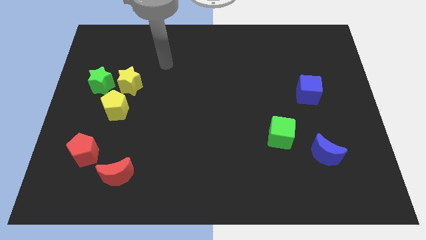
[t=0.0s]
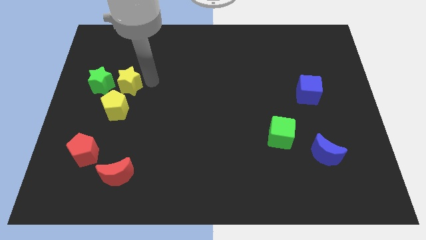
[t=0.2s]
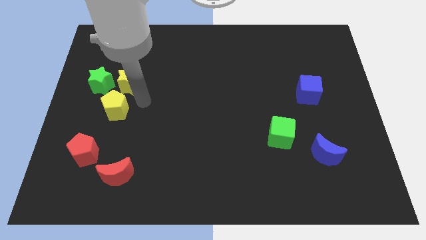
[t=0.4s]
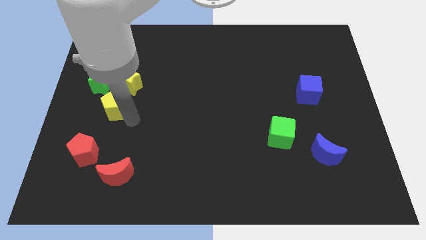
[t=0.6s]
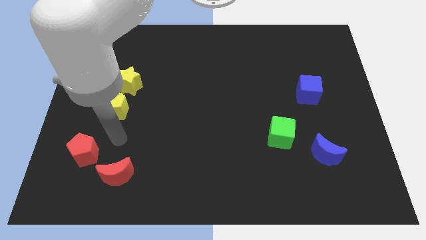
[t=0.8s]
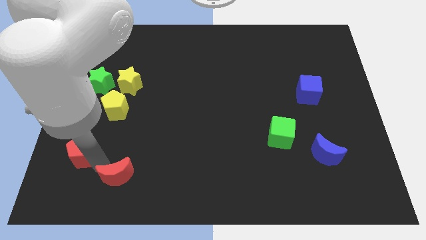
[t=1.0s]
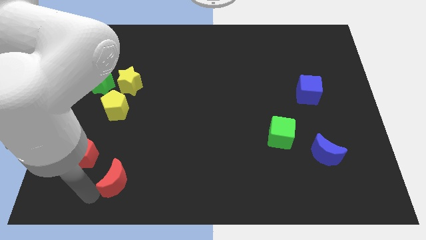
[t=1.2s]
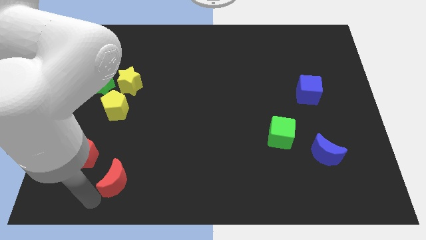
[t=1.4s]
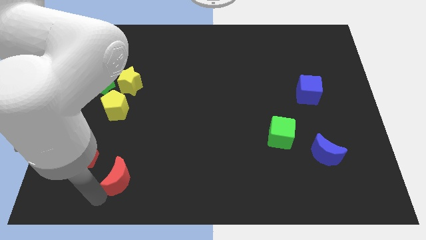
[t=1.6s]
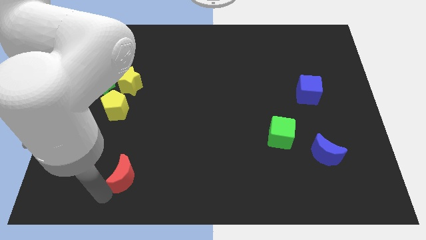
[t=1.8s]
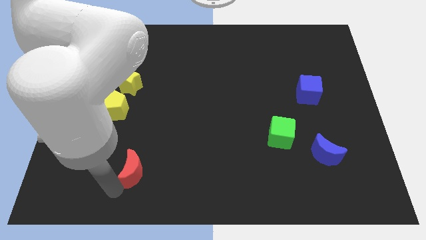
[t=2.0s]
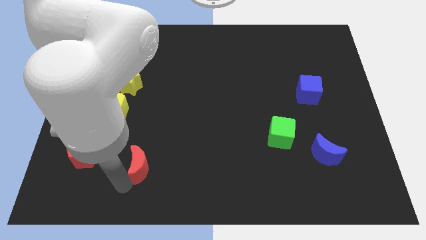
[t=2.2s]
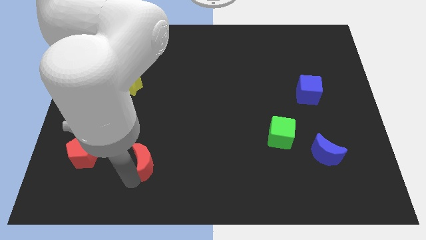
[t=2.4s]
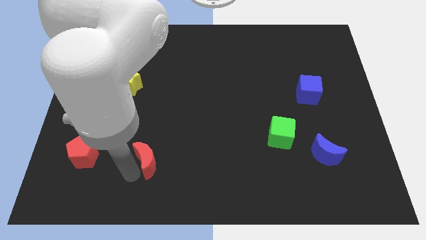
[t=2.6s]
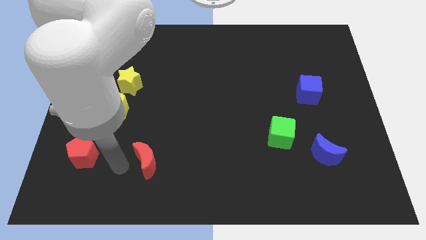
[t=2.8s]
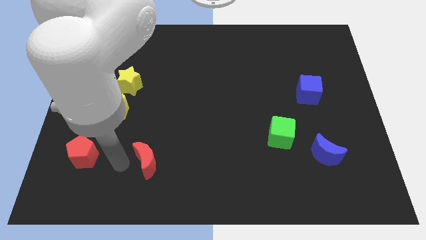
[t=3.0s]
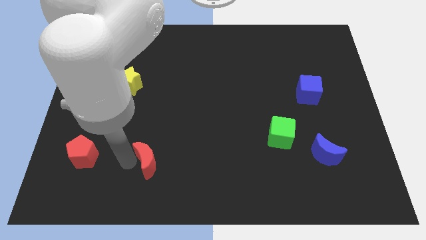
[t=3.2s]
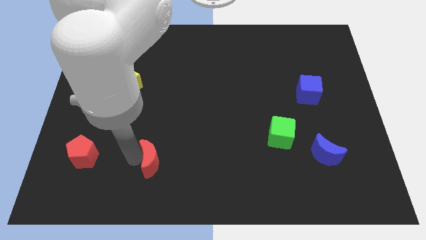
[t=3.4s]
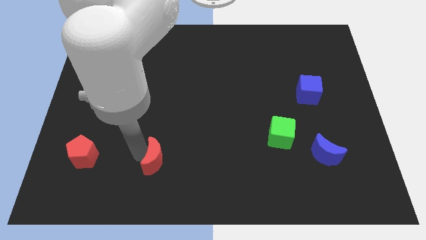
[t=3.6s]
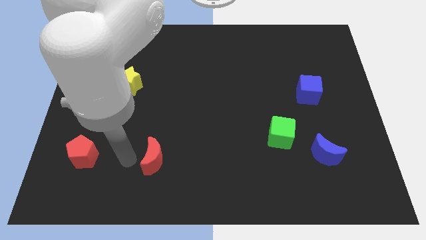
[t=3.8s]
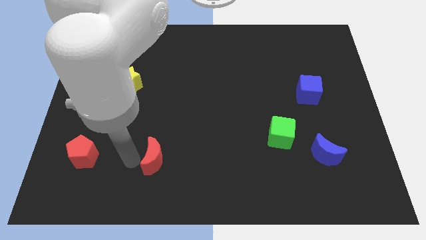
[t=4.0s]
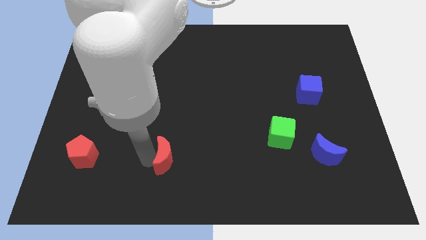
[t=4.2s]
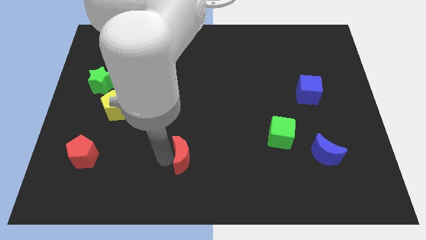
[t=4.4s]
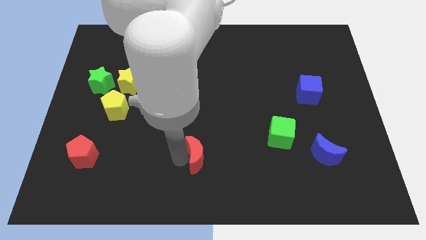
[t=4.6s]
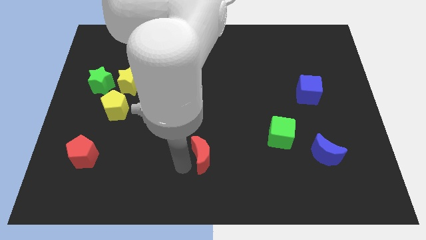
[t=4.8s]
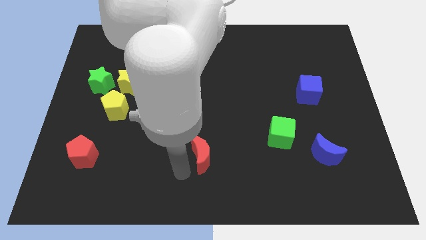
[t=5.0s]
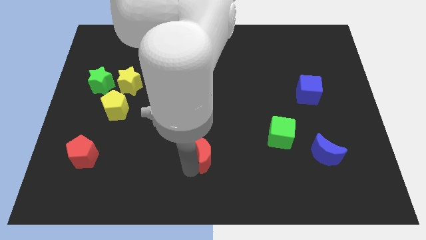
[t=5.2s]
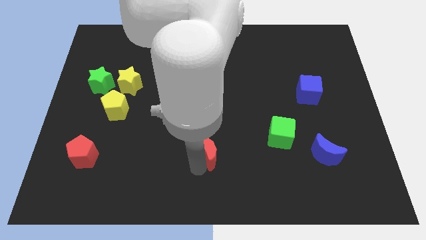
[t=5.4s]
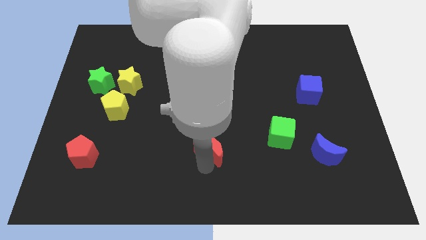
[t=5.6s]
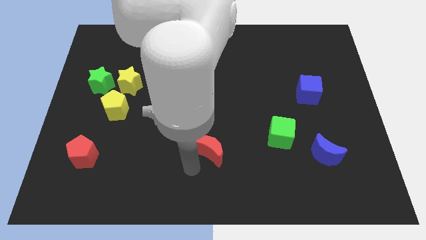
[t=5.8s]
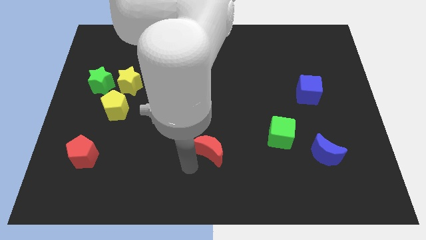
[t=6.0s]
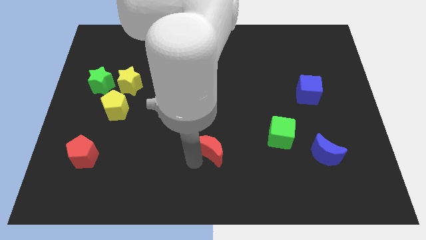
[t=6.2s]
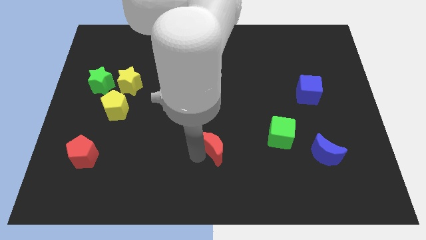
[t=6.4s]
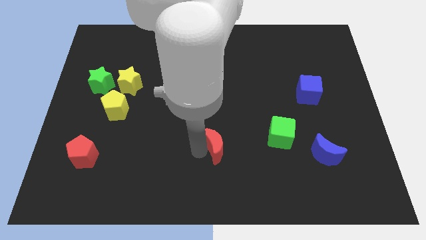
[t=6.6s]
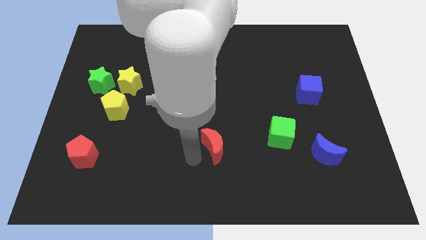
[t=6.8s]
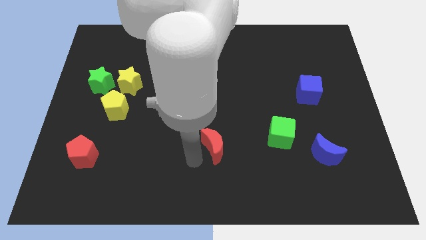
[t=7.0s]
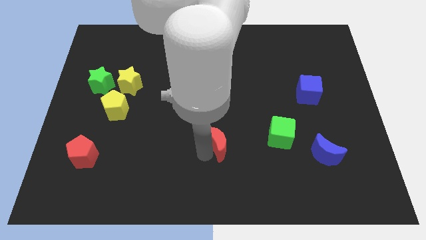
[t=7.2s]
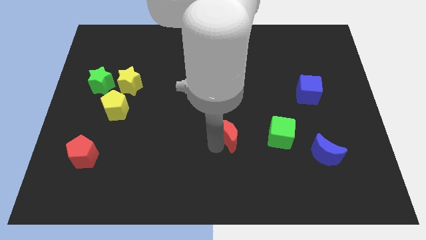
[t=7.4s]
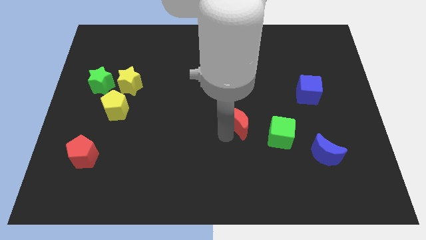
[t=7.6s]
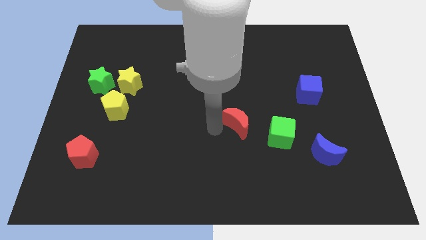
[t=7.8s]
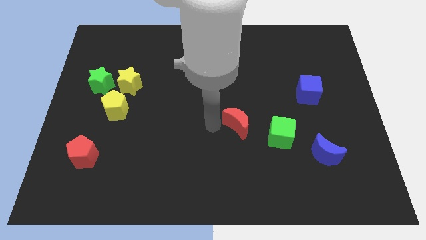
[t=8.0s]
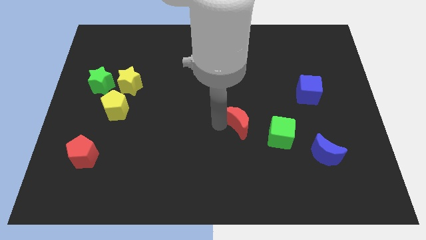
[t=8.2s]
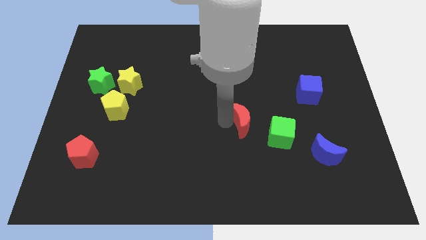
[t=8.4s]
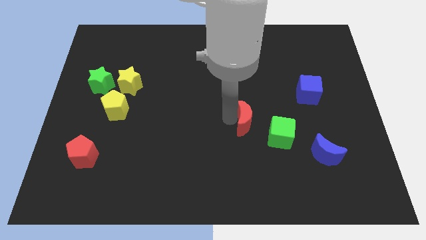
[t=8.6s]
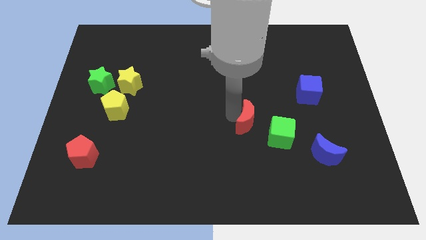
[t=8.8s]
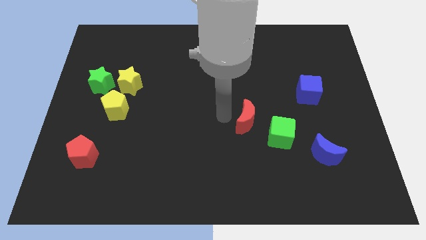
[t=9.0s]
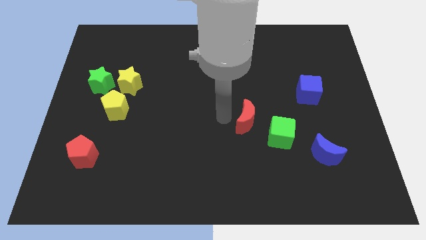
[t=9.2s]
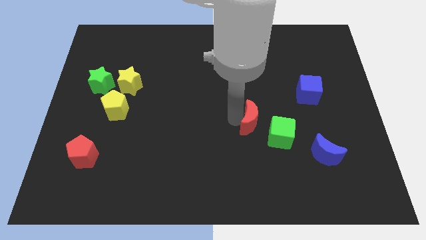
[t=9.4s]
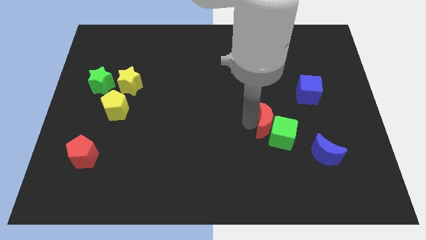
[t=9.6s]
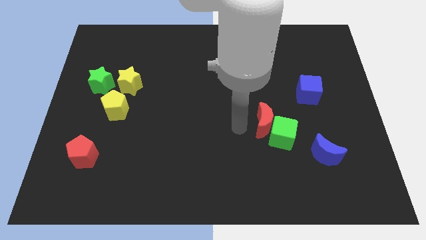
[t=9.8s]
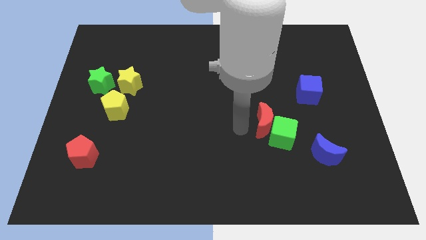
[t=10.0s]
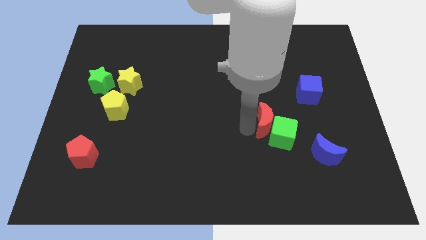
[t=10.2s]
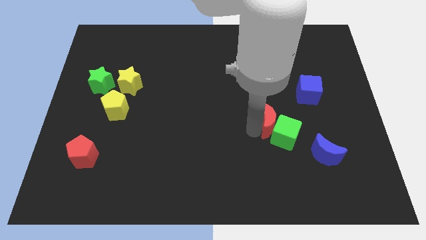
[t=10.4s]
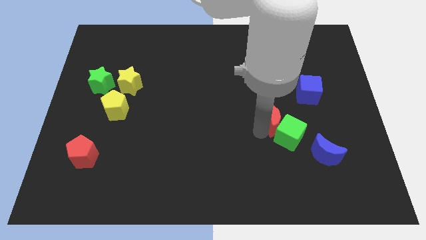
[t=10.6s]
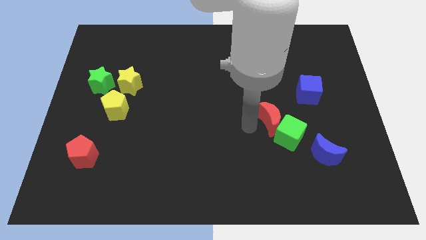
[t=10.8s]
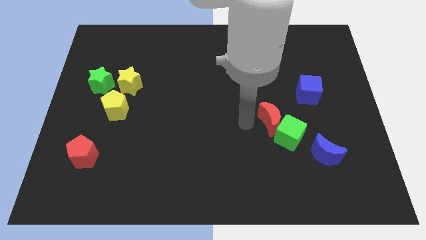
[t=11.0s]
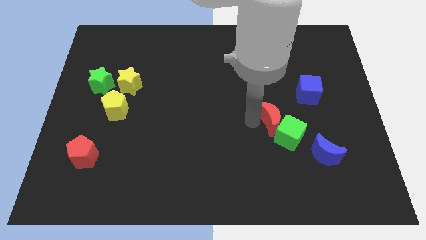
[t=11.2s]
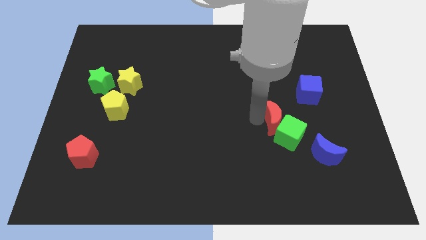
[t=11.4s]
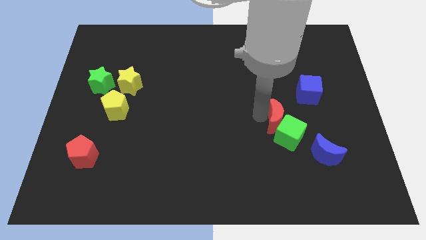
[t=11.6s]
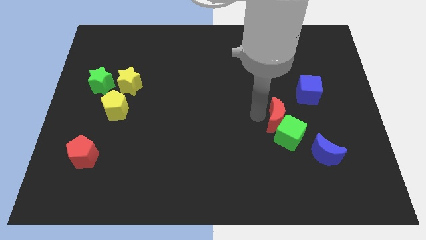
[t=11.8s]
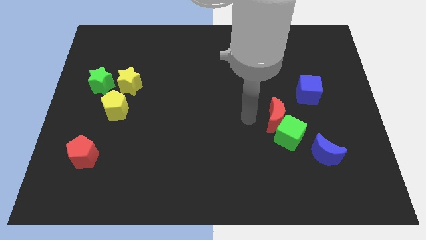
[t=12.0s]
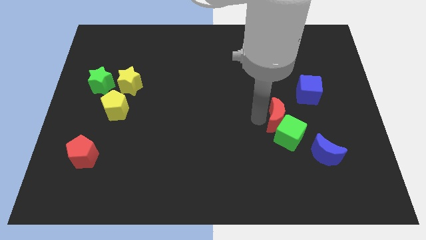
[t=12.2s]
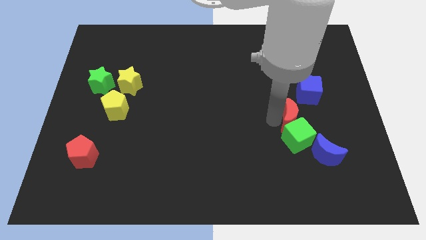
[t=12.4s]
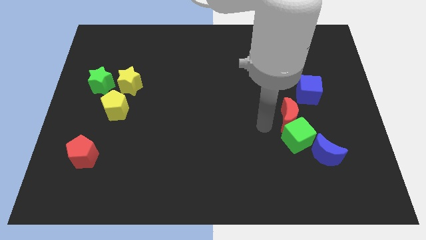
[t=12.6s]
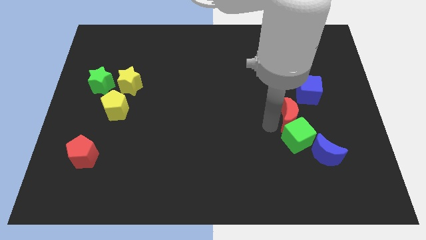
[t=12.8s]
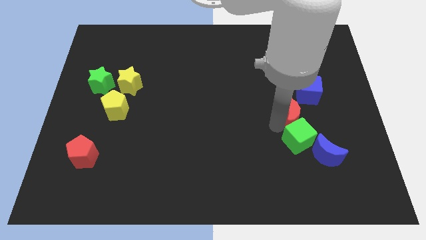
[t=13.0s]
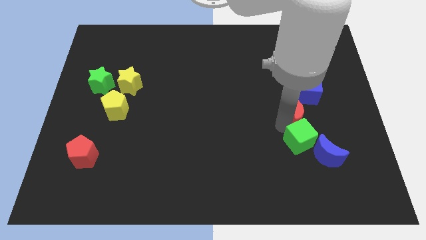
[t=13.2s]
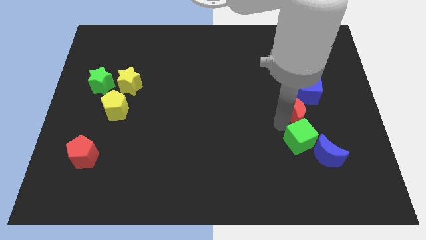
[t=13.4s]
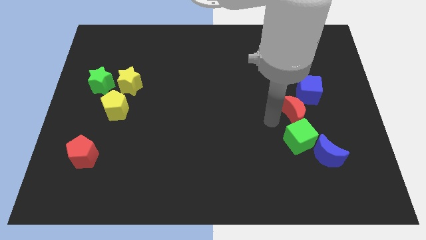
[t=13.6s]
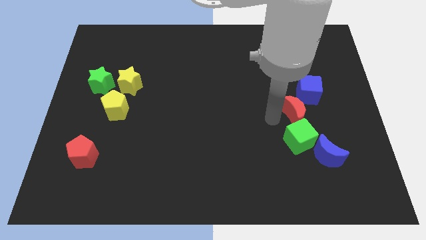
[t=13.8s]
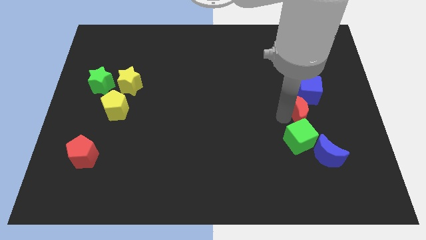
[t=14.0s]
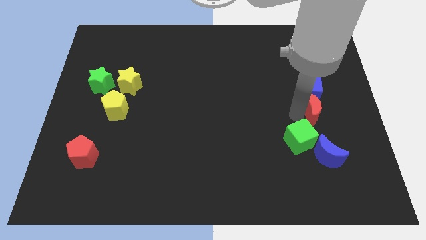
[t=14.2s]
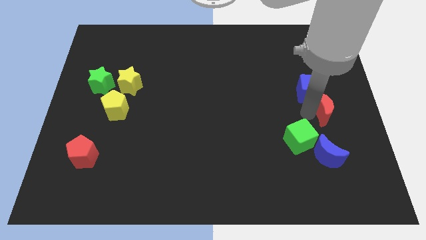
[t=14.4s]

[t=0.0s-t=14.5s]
push the red moon to the center right
